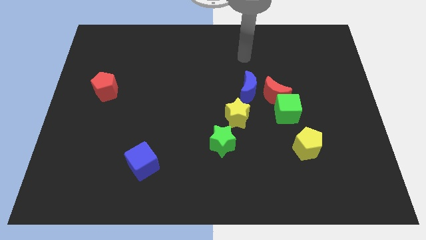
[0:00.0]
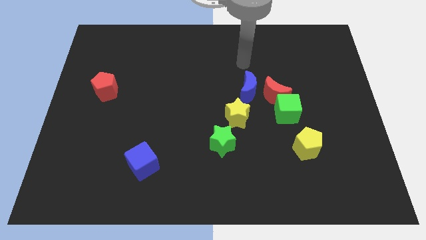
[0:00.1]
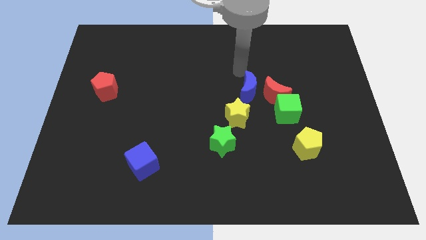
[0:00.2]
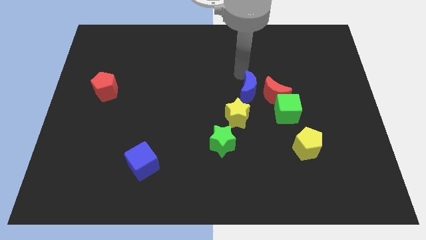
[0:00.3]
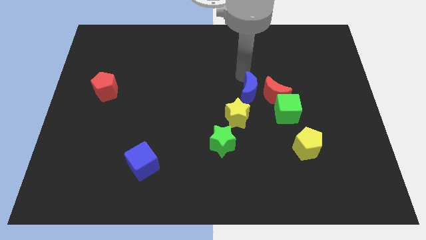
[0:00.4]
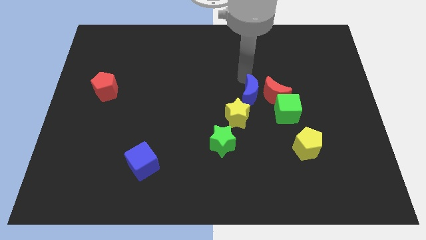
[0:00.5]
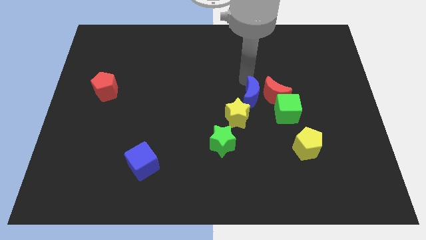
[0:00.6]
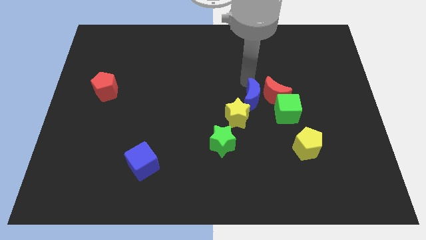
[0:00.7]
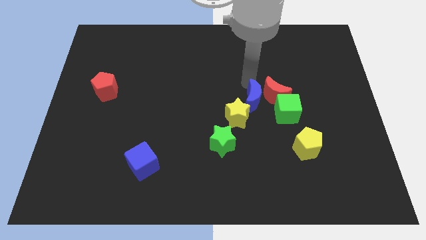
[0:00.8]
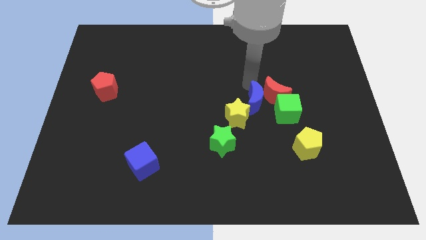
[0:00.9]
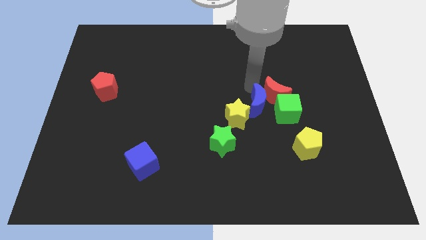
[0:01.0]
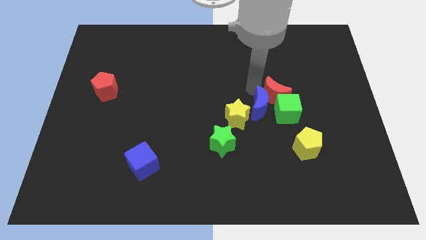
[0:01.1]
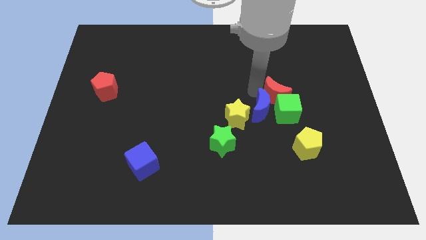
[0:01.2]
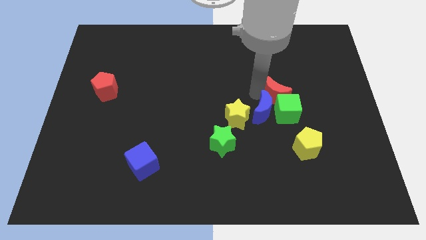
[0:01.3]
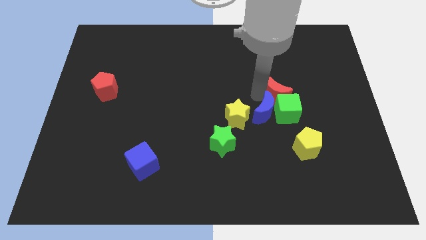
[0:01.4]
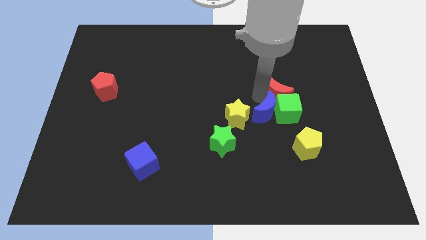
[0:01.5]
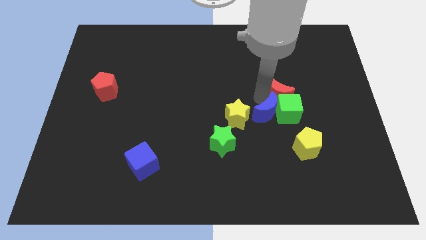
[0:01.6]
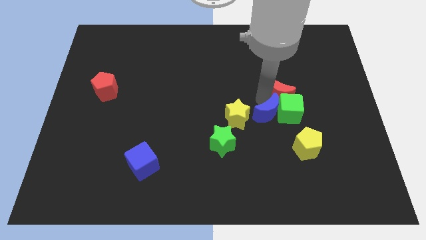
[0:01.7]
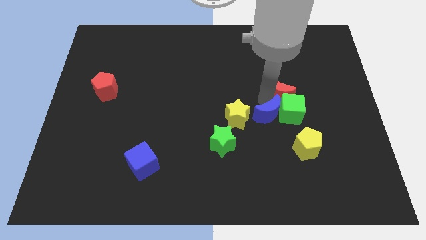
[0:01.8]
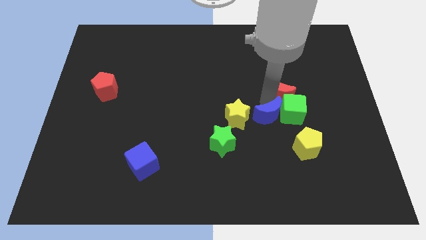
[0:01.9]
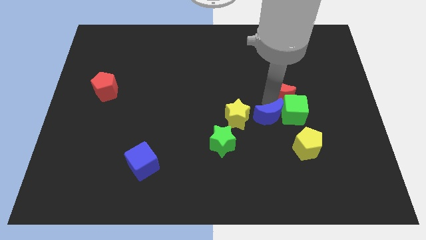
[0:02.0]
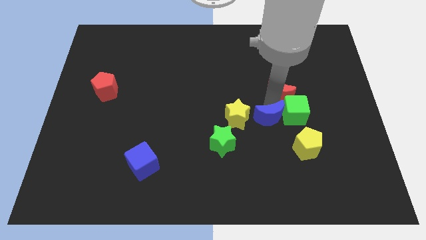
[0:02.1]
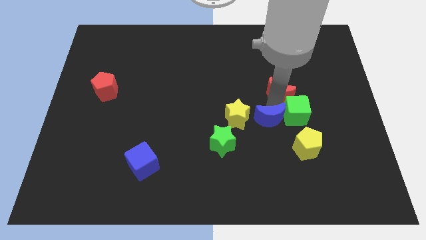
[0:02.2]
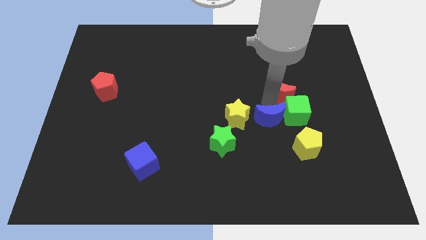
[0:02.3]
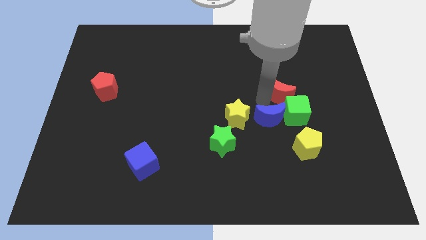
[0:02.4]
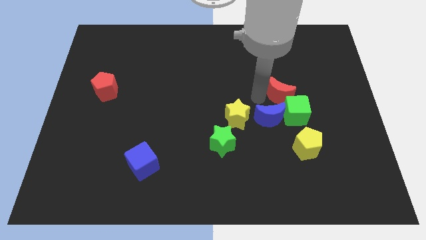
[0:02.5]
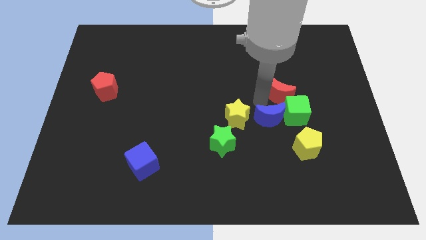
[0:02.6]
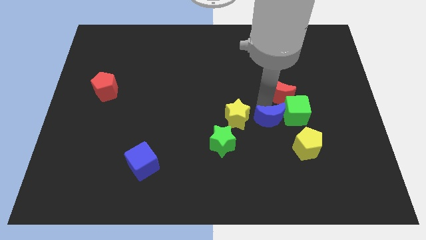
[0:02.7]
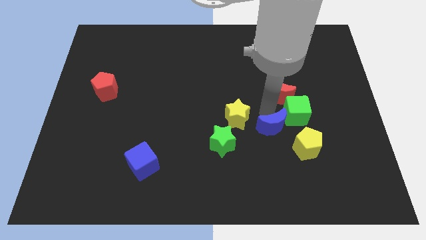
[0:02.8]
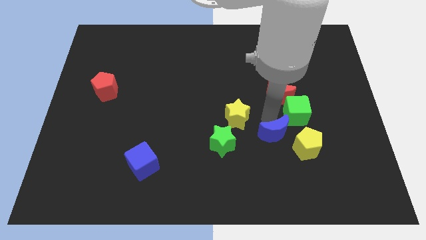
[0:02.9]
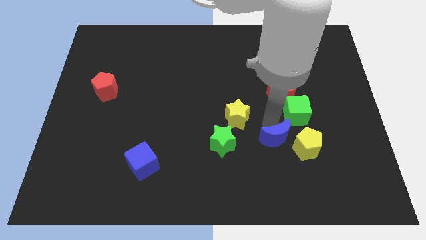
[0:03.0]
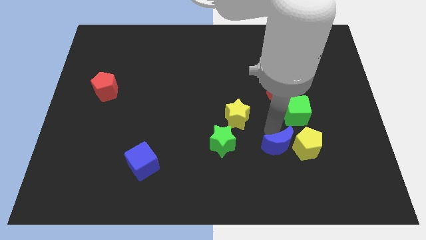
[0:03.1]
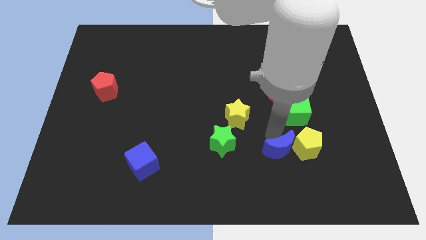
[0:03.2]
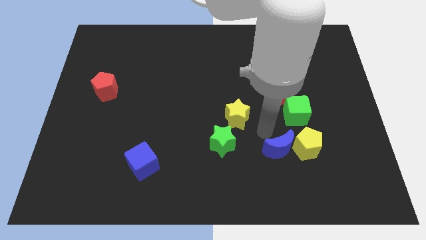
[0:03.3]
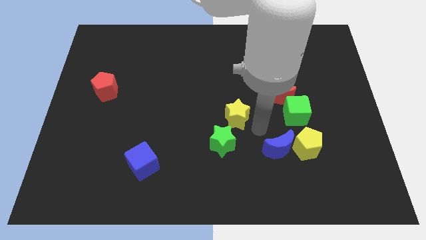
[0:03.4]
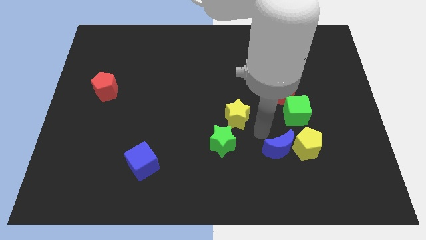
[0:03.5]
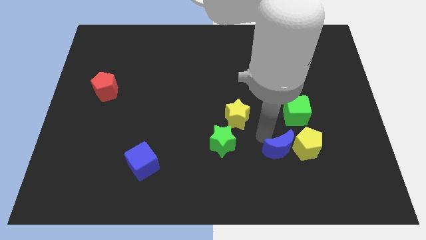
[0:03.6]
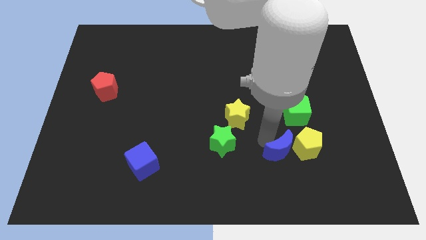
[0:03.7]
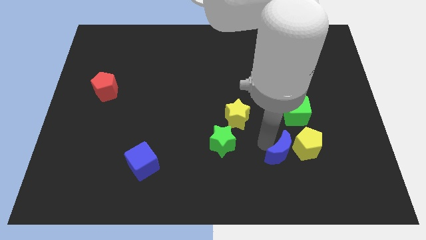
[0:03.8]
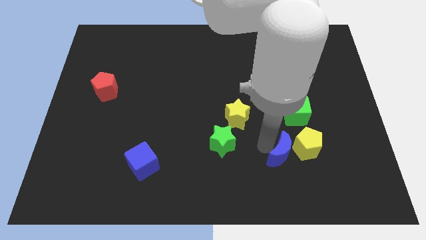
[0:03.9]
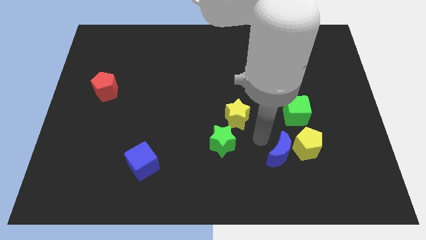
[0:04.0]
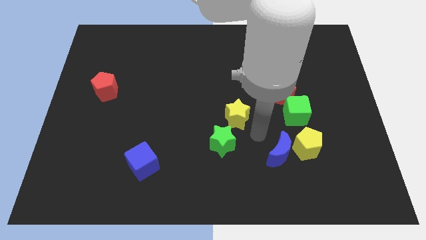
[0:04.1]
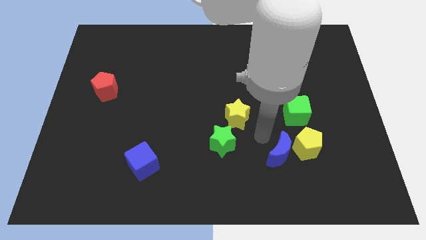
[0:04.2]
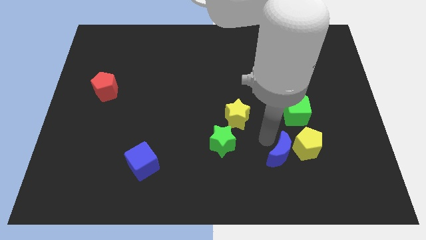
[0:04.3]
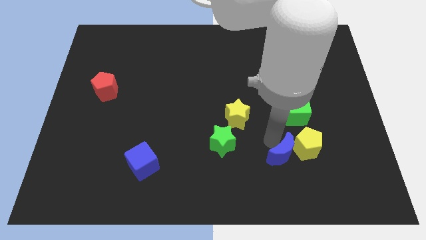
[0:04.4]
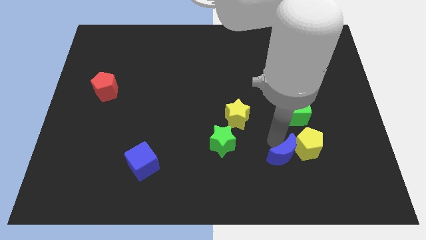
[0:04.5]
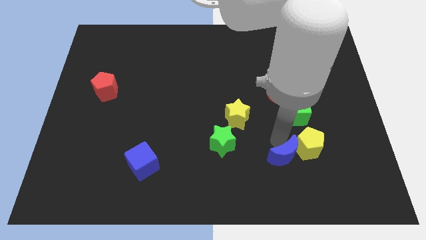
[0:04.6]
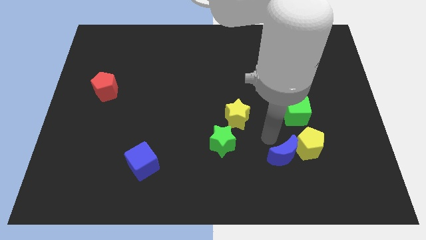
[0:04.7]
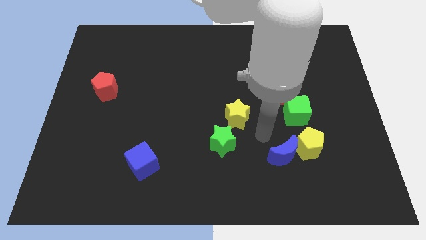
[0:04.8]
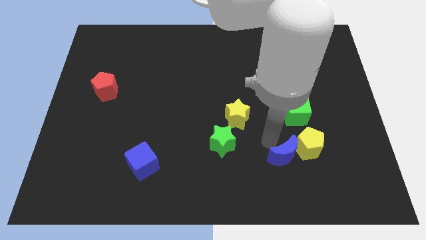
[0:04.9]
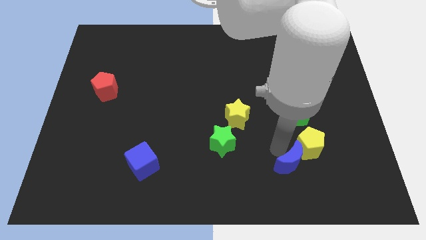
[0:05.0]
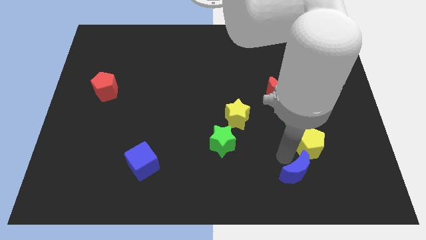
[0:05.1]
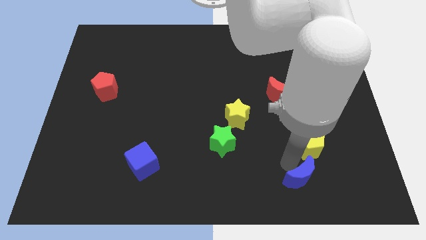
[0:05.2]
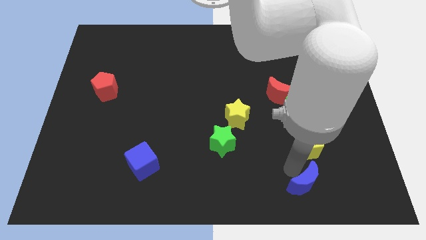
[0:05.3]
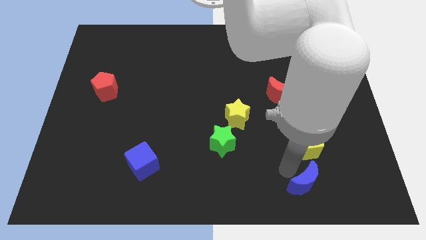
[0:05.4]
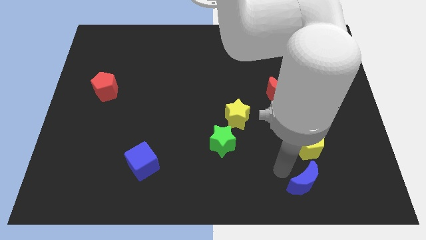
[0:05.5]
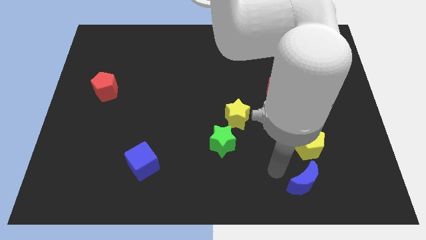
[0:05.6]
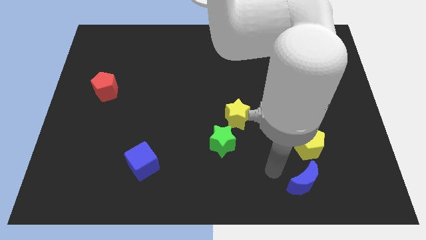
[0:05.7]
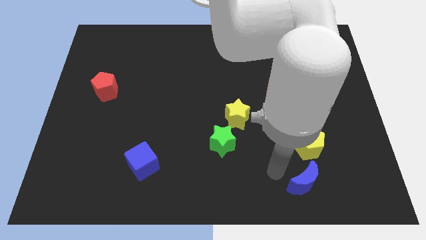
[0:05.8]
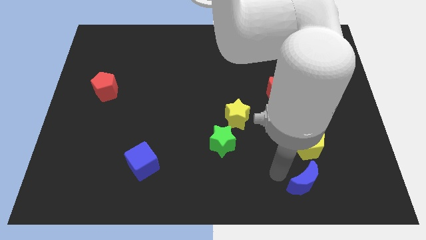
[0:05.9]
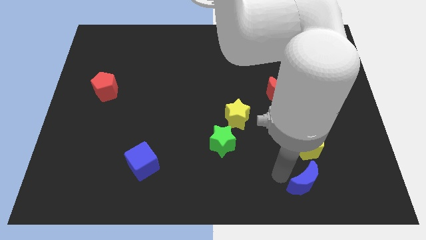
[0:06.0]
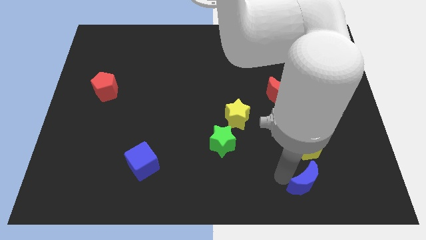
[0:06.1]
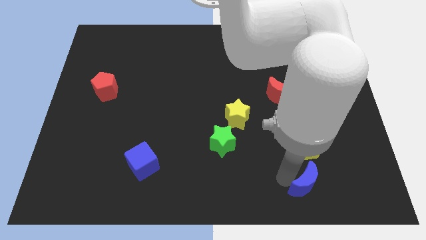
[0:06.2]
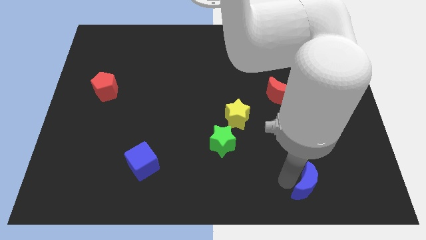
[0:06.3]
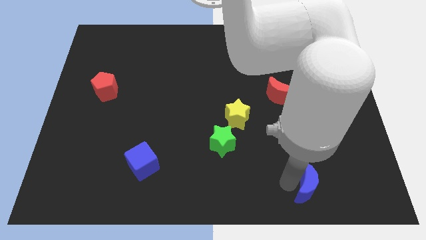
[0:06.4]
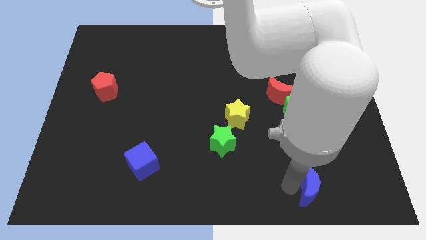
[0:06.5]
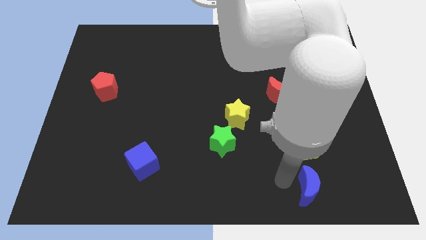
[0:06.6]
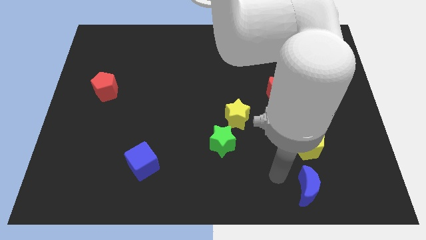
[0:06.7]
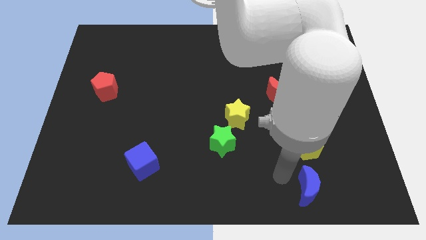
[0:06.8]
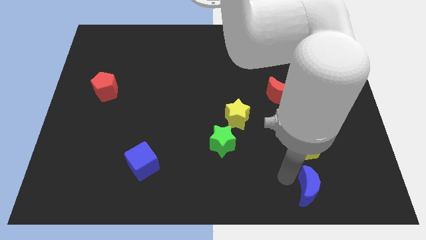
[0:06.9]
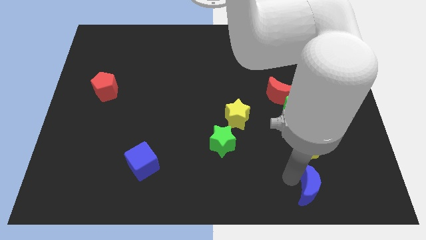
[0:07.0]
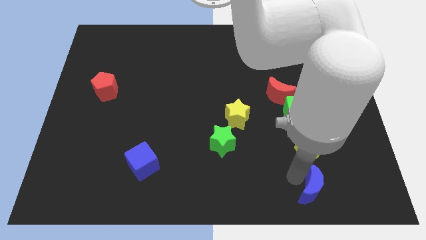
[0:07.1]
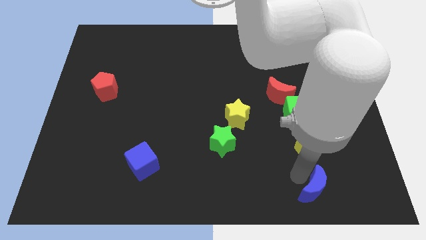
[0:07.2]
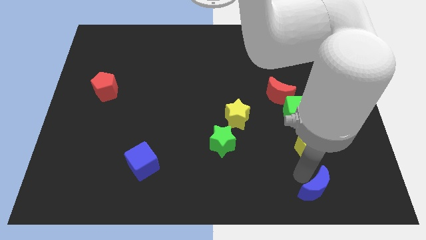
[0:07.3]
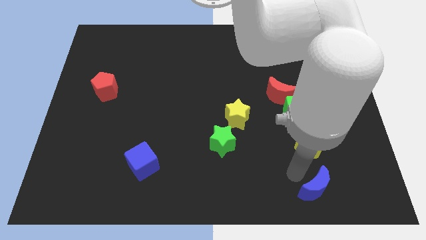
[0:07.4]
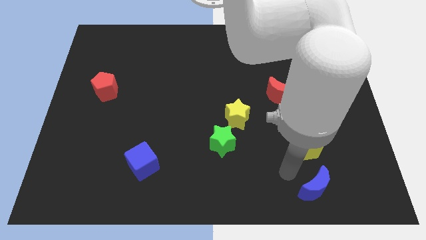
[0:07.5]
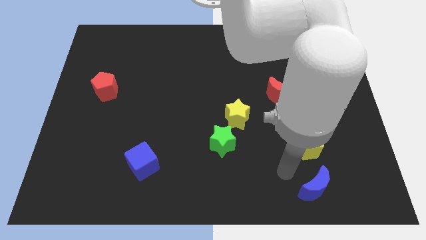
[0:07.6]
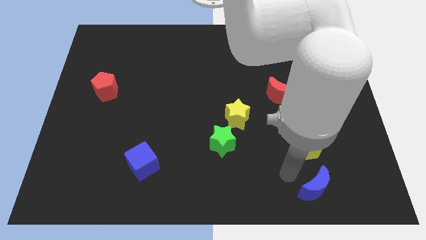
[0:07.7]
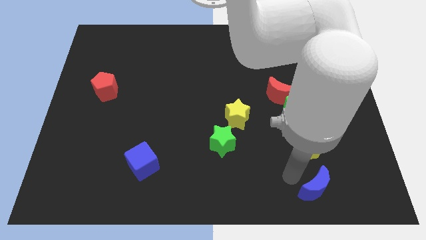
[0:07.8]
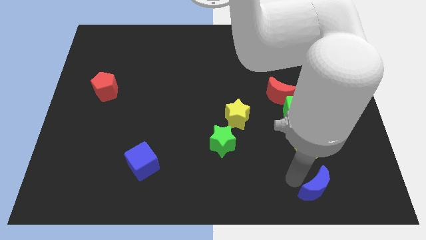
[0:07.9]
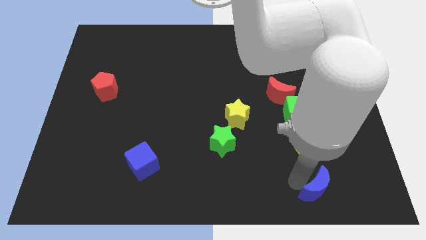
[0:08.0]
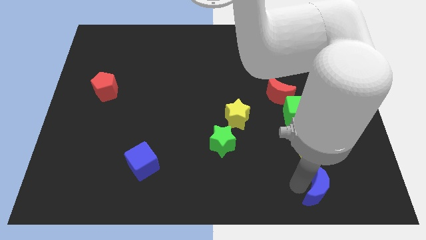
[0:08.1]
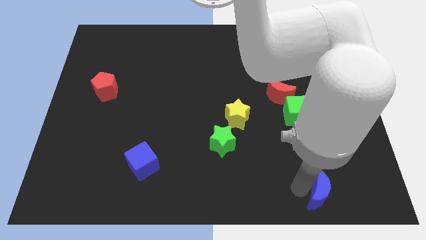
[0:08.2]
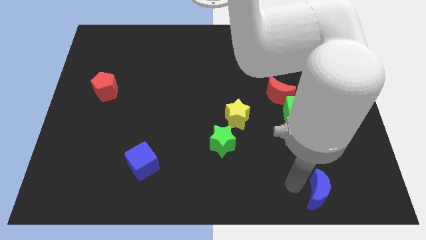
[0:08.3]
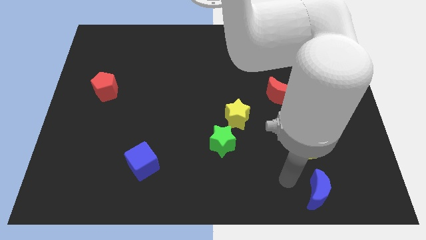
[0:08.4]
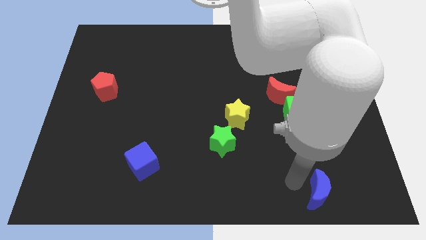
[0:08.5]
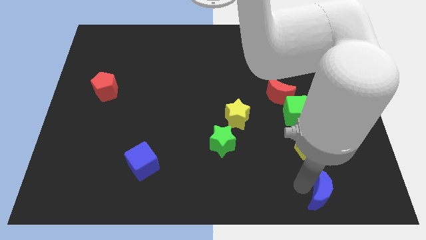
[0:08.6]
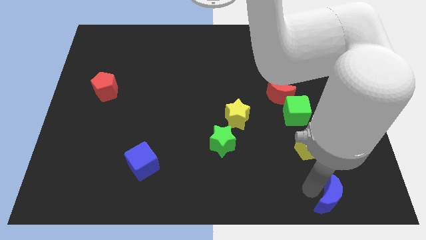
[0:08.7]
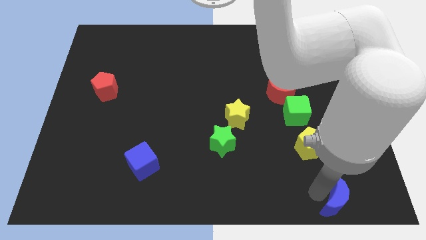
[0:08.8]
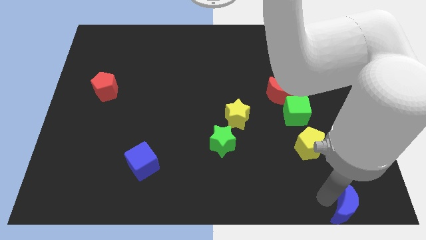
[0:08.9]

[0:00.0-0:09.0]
put the blue moon to the bottom right corner
